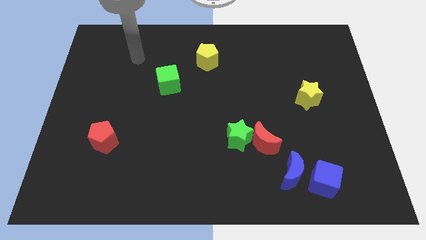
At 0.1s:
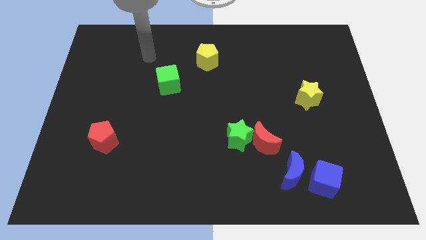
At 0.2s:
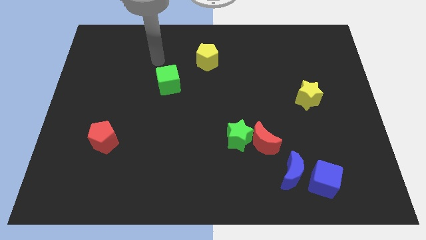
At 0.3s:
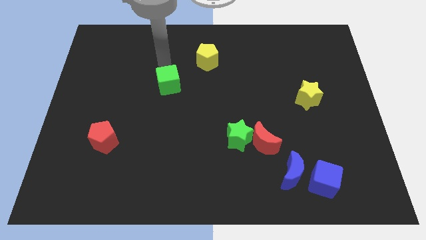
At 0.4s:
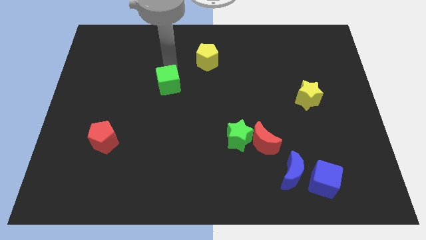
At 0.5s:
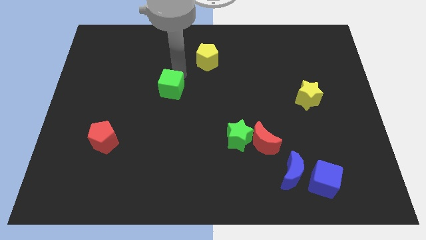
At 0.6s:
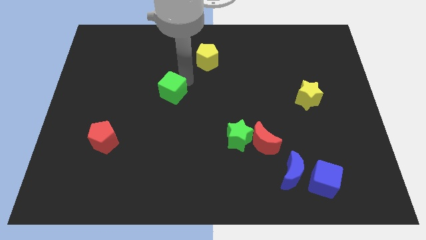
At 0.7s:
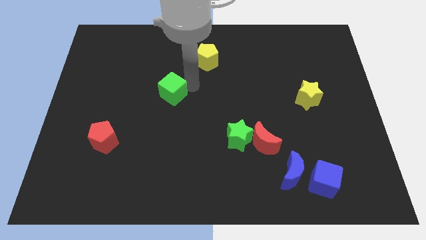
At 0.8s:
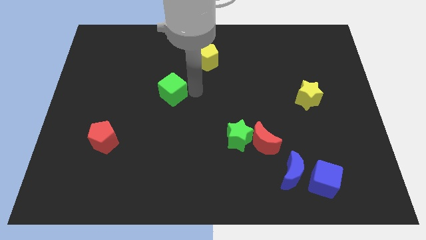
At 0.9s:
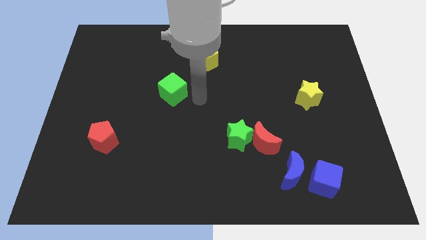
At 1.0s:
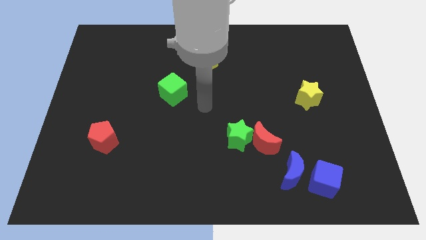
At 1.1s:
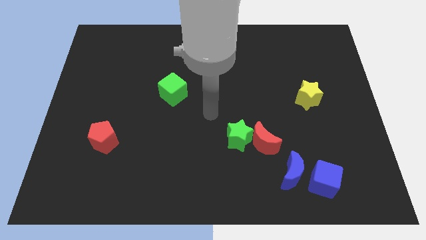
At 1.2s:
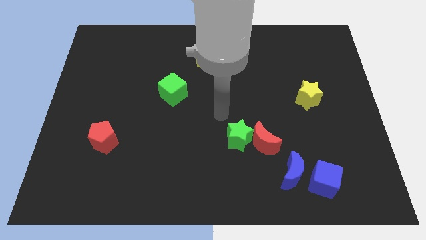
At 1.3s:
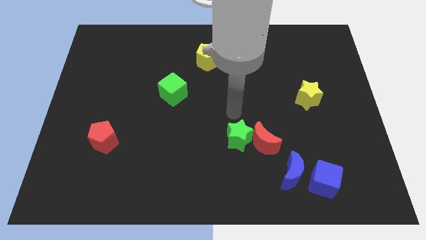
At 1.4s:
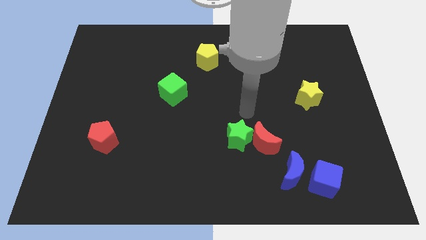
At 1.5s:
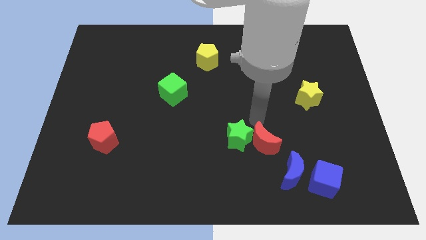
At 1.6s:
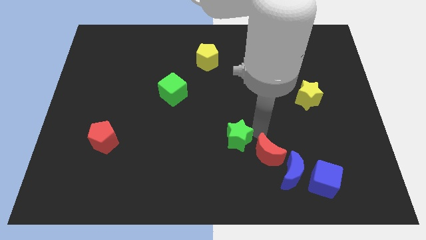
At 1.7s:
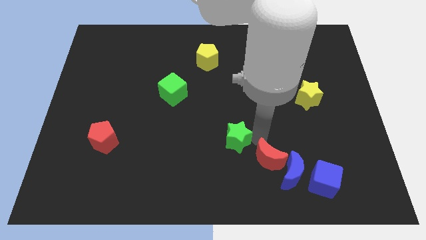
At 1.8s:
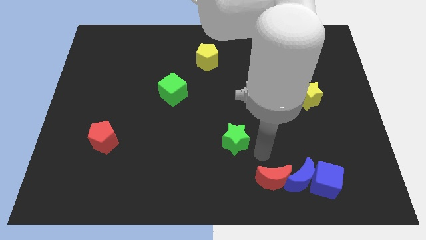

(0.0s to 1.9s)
separate the green star from the red moon

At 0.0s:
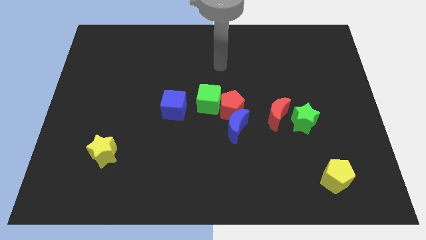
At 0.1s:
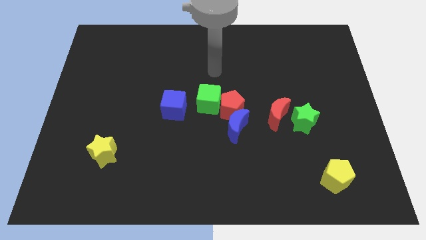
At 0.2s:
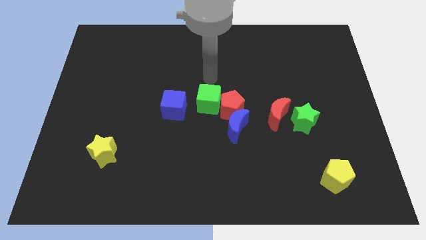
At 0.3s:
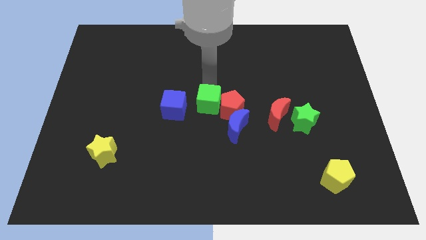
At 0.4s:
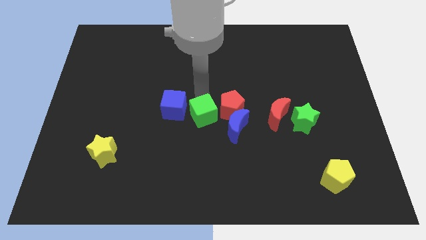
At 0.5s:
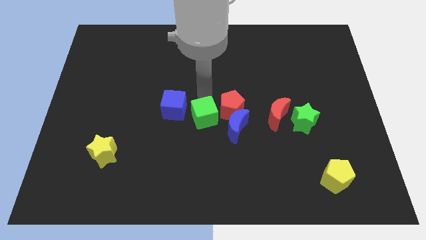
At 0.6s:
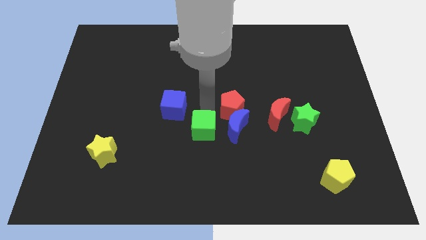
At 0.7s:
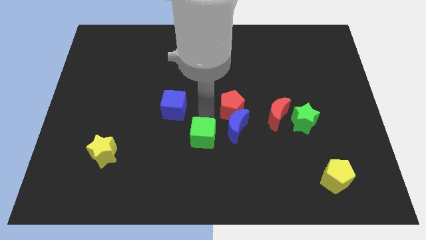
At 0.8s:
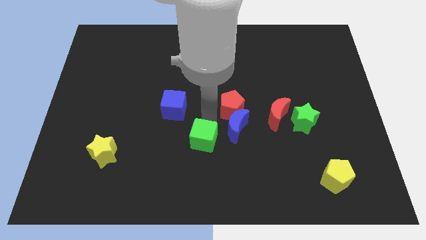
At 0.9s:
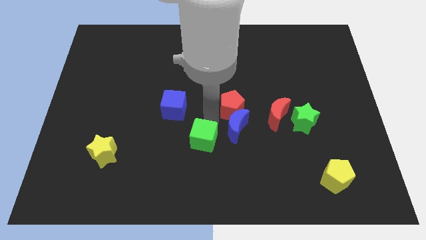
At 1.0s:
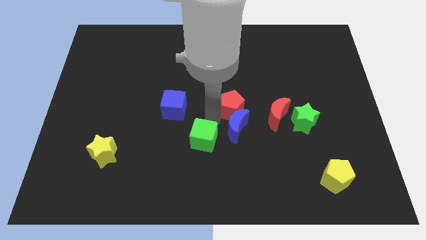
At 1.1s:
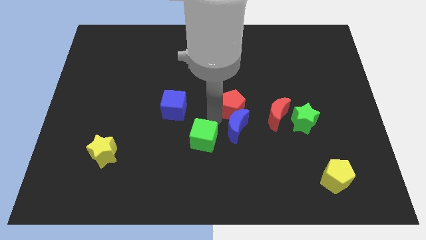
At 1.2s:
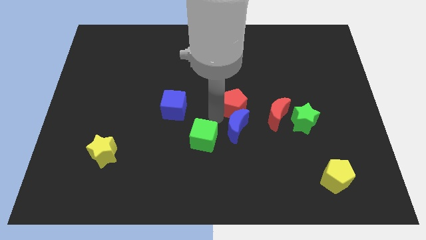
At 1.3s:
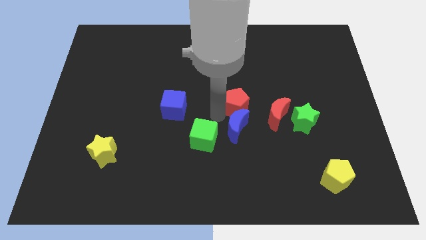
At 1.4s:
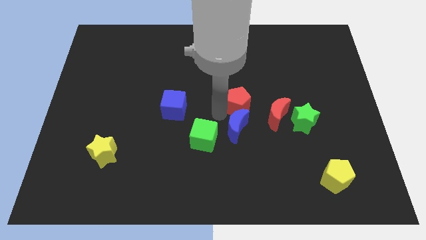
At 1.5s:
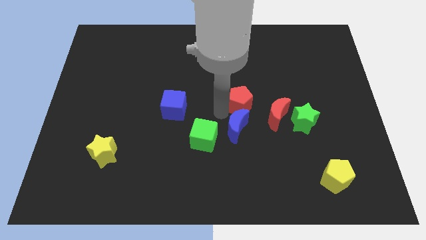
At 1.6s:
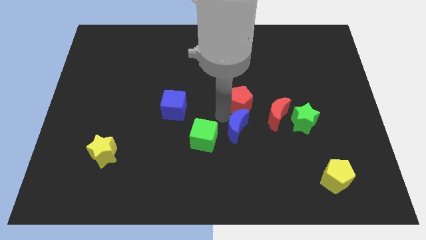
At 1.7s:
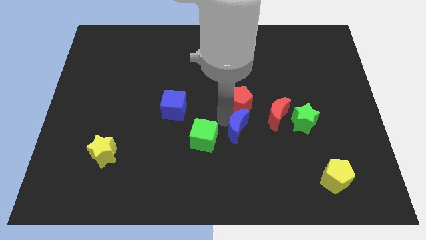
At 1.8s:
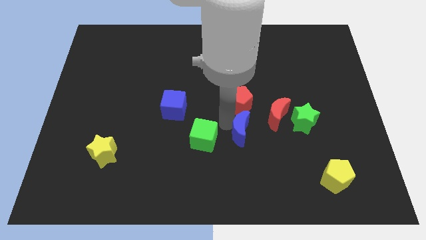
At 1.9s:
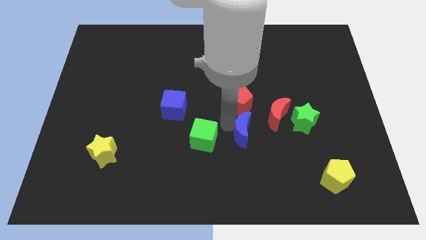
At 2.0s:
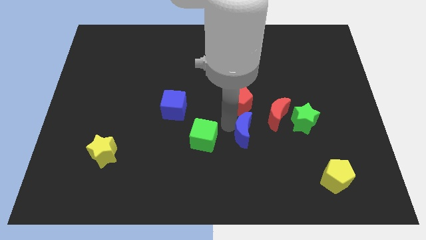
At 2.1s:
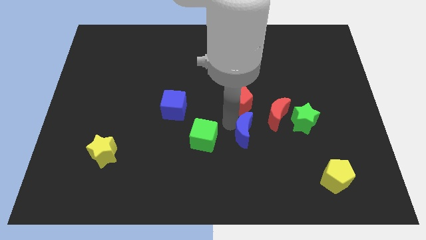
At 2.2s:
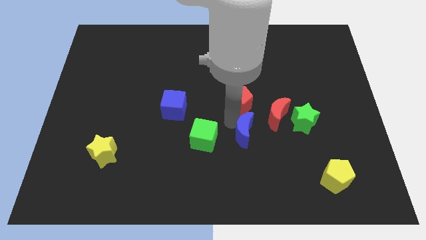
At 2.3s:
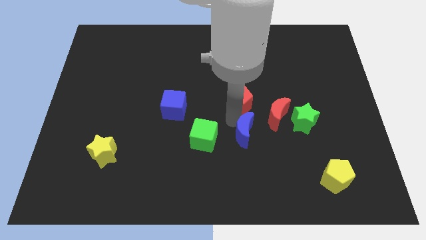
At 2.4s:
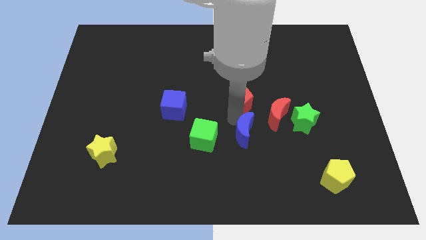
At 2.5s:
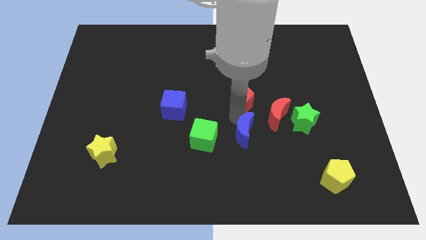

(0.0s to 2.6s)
separate the red pentagon from the blue moon and green cube

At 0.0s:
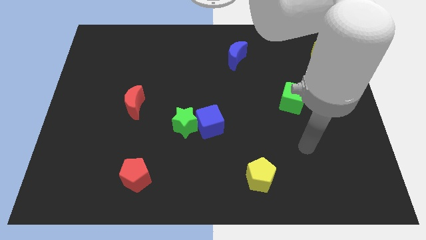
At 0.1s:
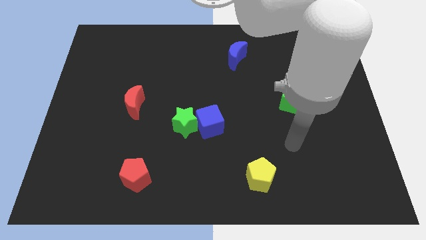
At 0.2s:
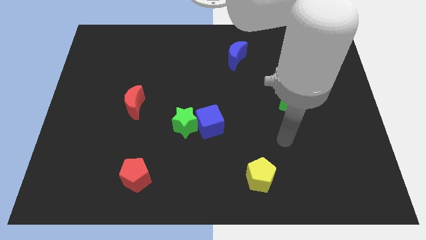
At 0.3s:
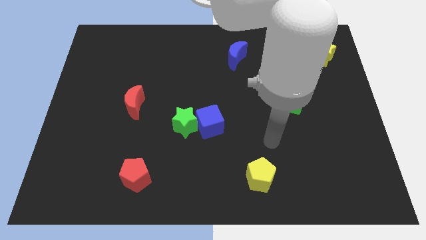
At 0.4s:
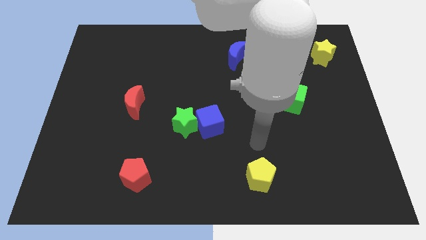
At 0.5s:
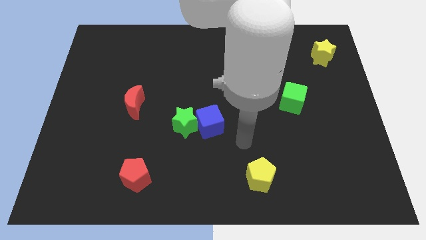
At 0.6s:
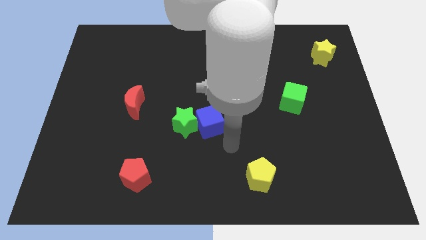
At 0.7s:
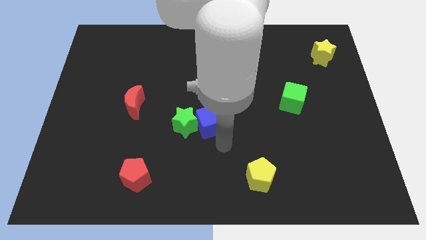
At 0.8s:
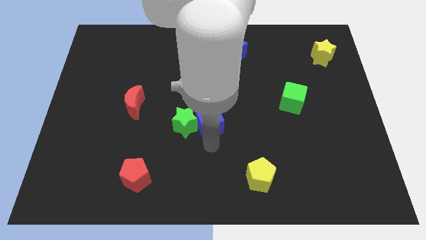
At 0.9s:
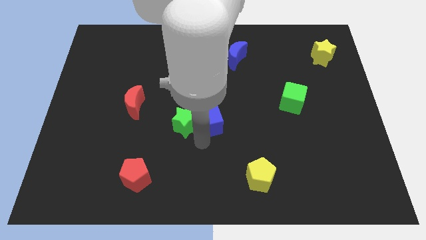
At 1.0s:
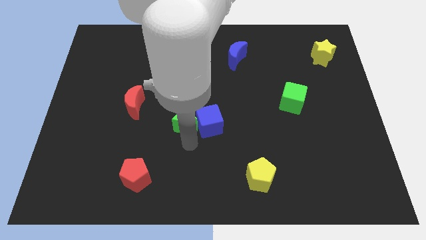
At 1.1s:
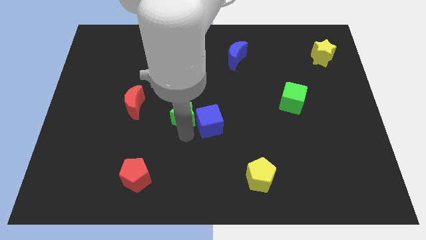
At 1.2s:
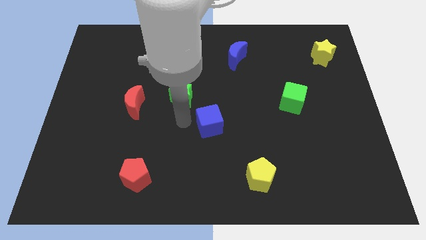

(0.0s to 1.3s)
move the blue cube away from the green star

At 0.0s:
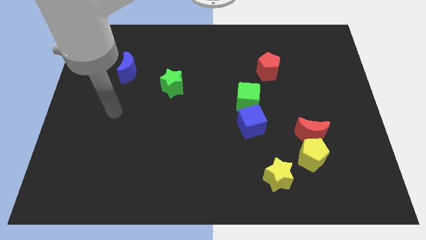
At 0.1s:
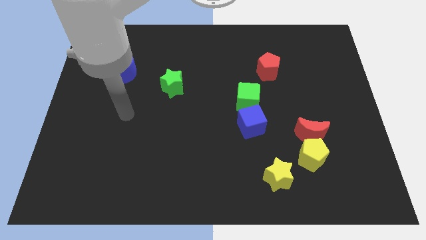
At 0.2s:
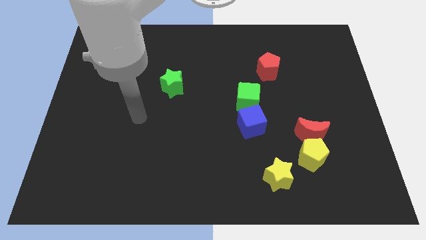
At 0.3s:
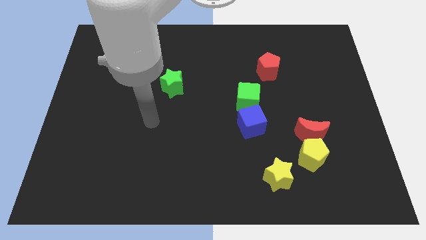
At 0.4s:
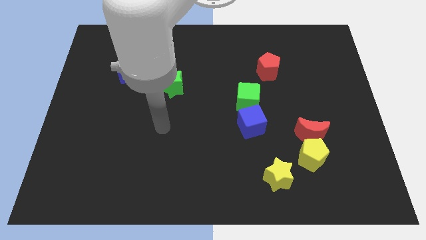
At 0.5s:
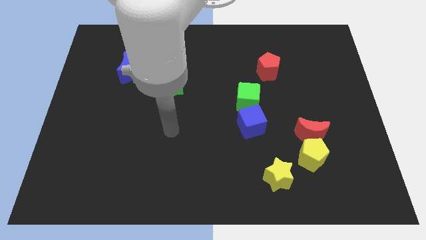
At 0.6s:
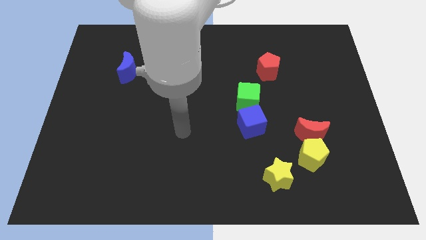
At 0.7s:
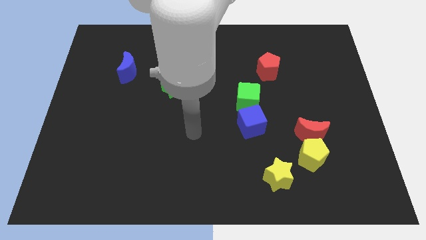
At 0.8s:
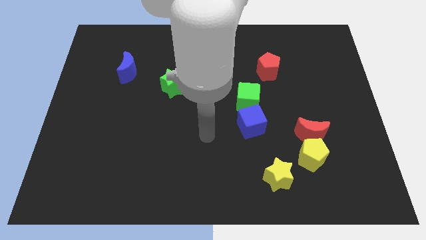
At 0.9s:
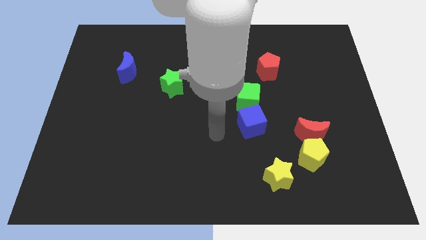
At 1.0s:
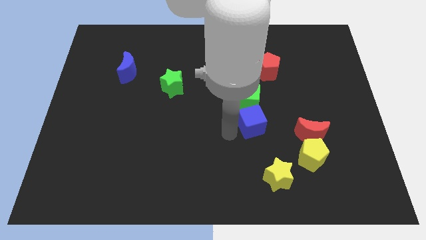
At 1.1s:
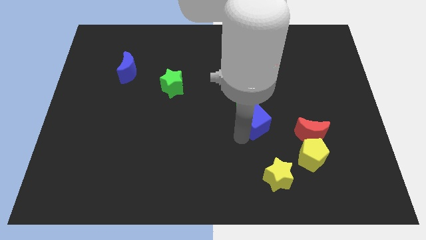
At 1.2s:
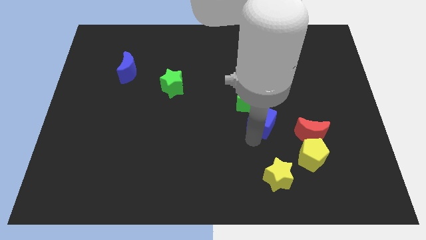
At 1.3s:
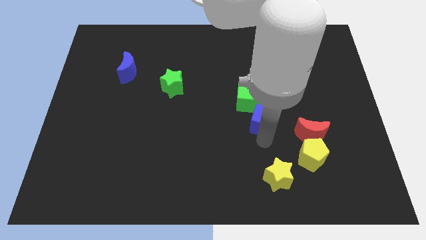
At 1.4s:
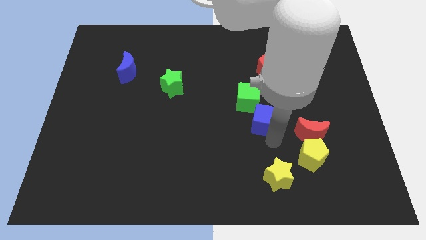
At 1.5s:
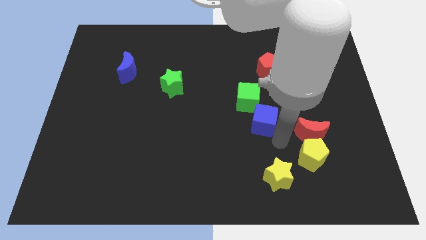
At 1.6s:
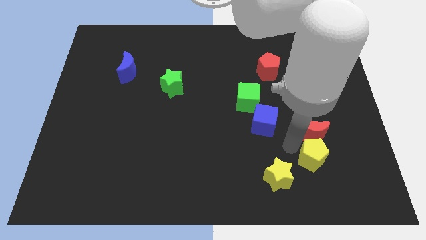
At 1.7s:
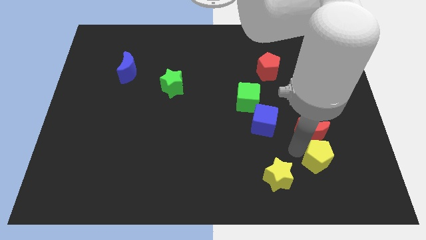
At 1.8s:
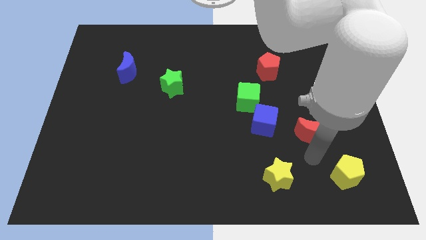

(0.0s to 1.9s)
separate the red moon from the yellow pentagon

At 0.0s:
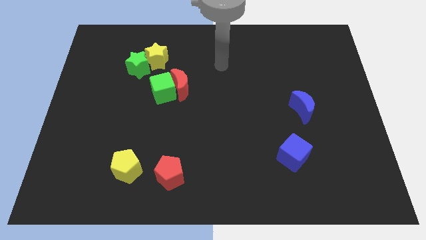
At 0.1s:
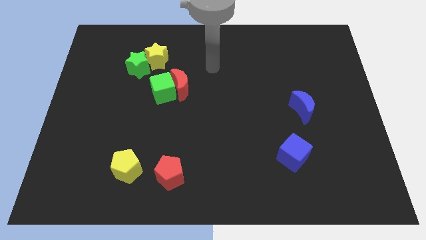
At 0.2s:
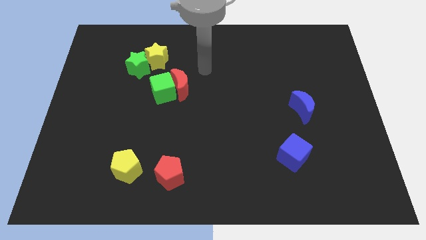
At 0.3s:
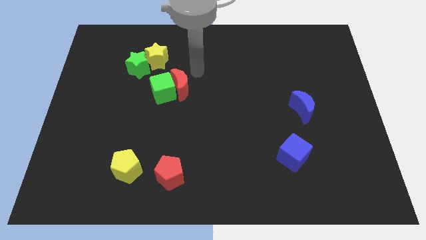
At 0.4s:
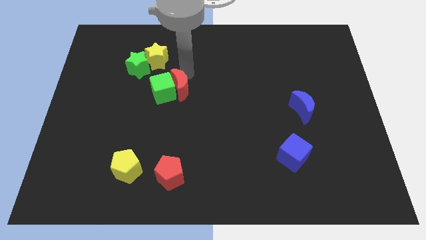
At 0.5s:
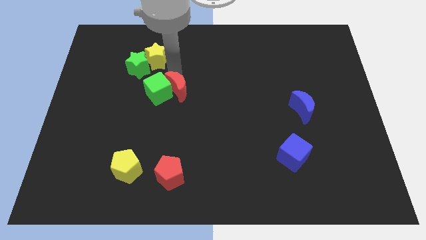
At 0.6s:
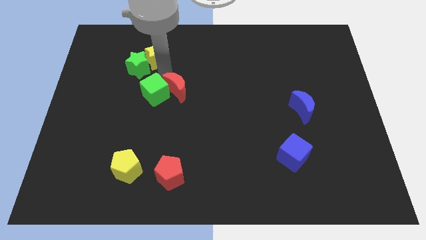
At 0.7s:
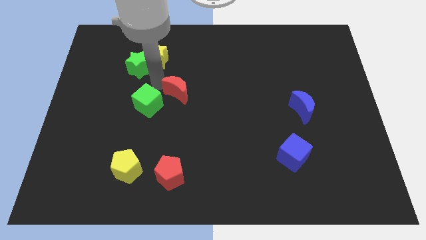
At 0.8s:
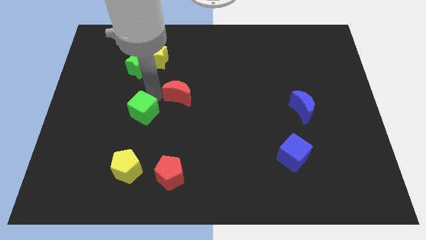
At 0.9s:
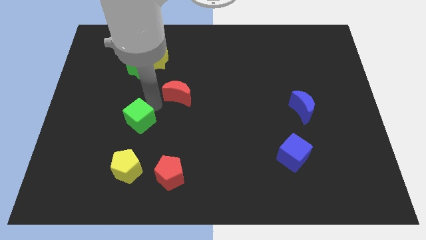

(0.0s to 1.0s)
pull the red moon apart from the green cube

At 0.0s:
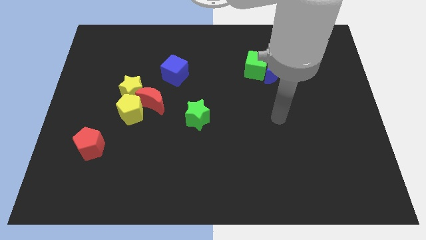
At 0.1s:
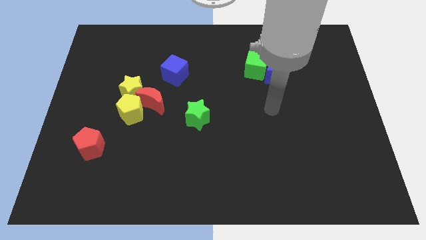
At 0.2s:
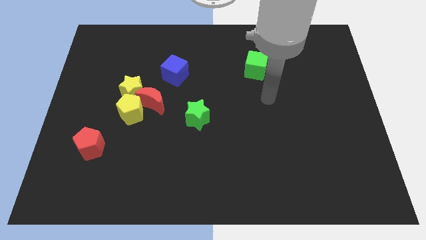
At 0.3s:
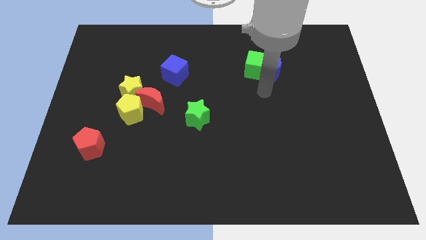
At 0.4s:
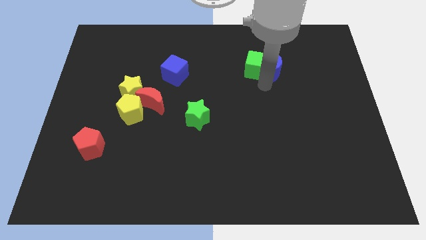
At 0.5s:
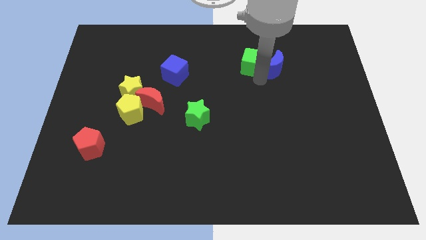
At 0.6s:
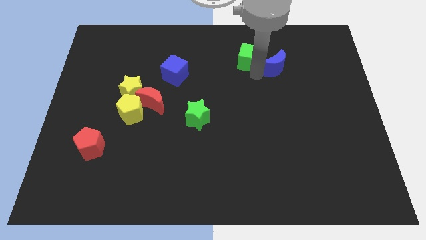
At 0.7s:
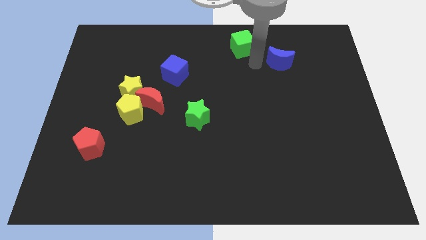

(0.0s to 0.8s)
move the blue moon away from the green cube

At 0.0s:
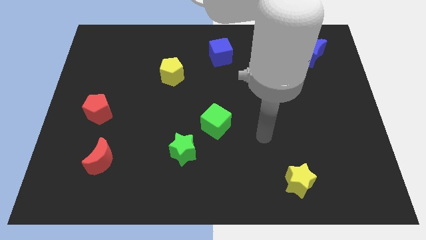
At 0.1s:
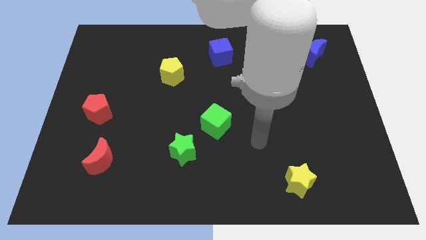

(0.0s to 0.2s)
pull the green cube apart from the green star
